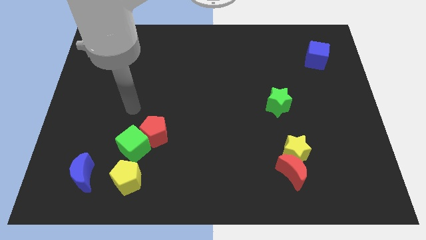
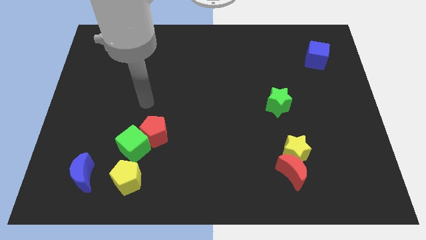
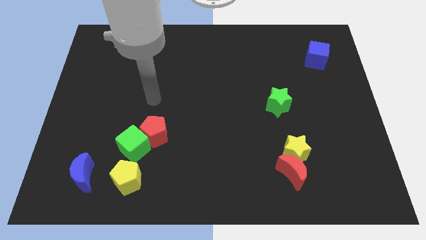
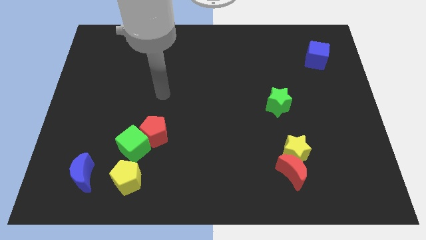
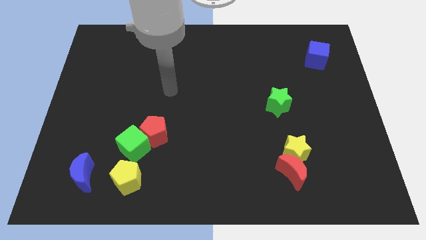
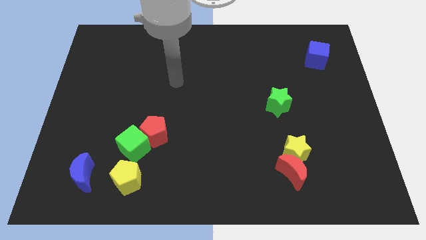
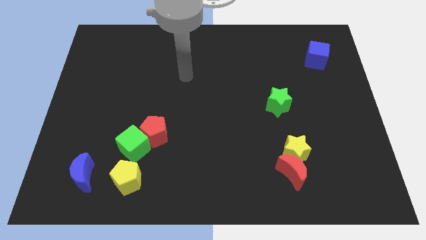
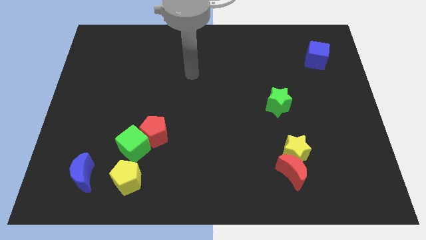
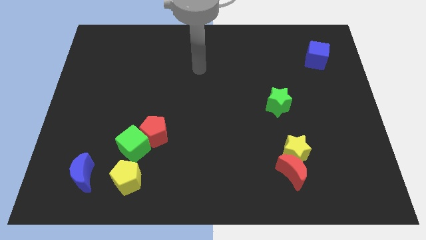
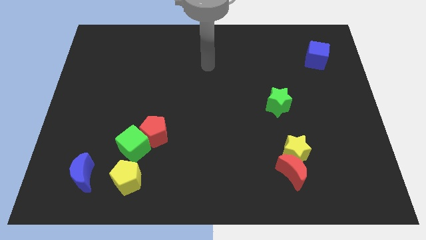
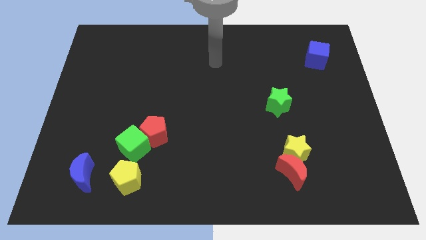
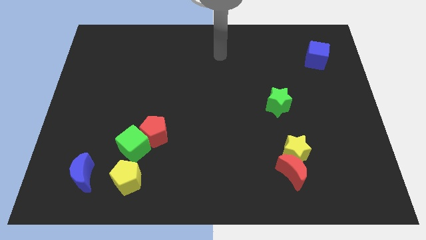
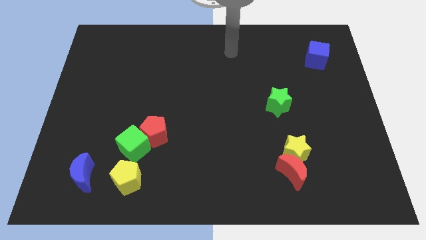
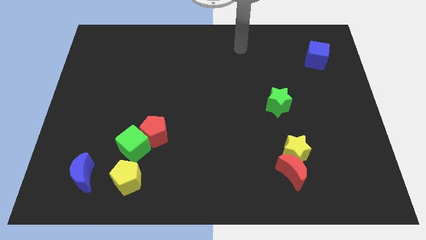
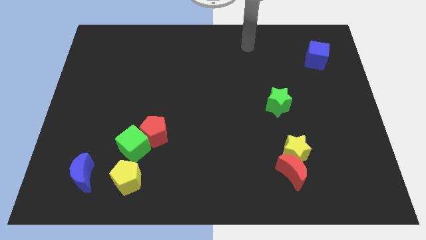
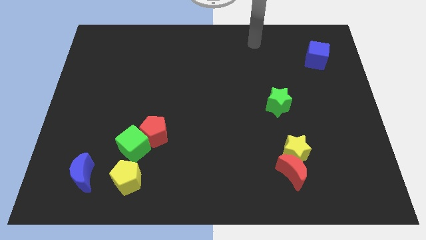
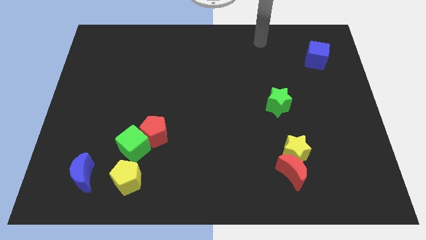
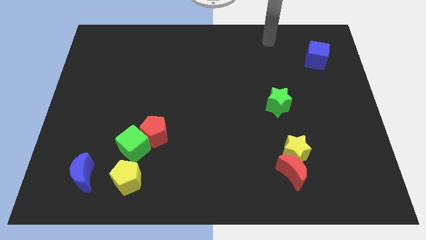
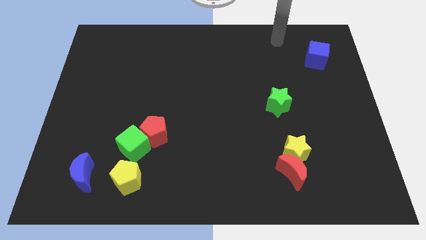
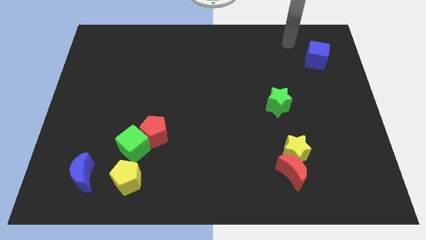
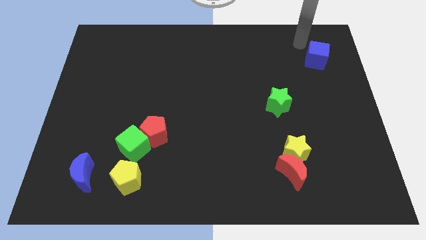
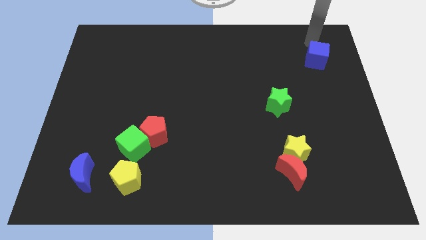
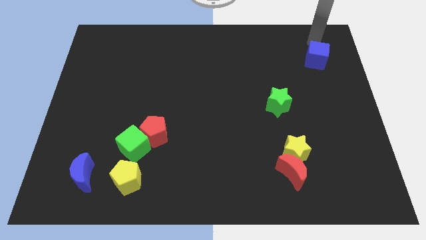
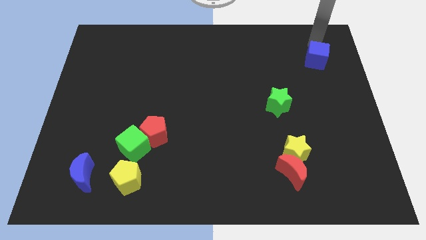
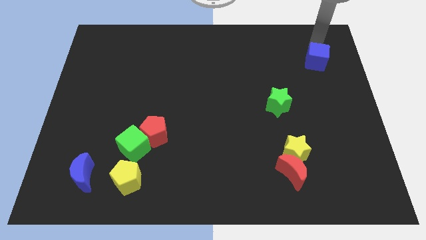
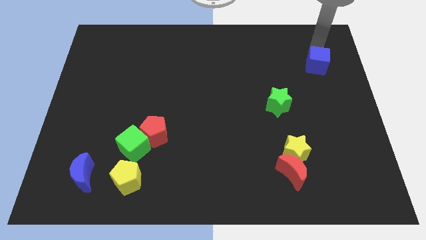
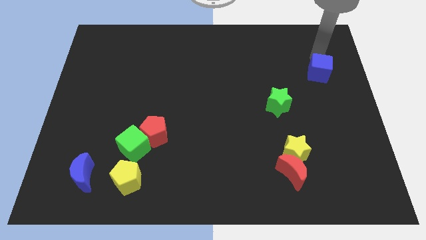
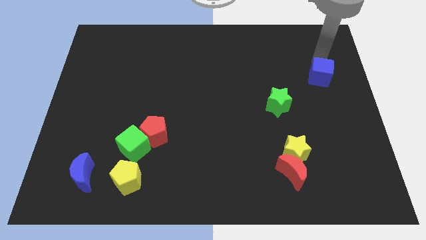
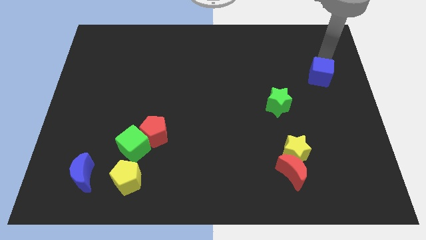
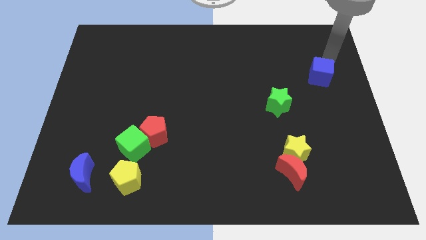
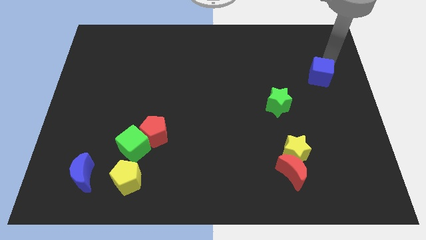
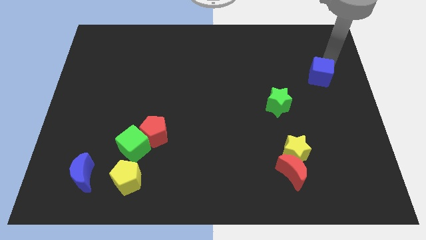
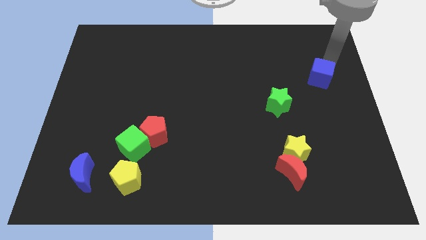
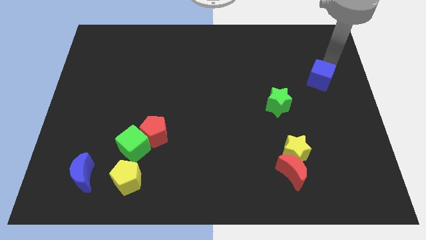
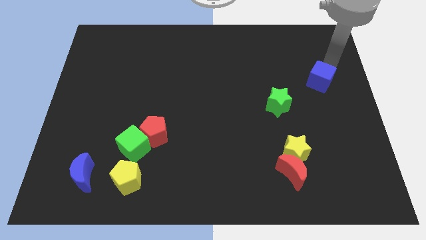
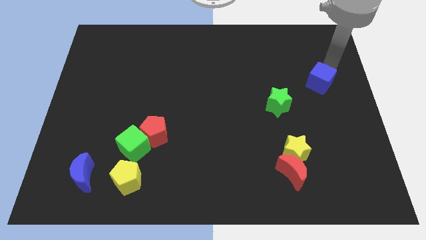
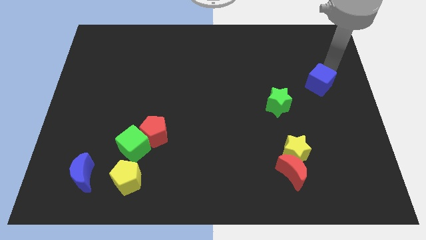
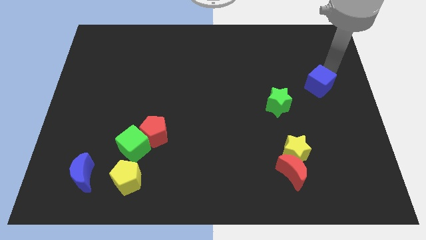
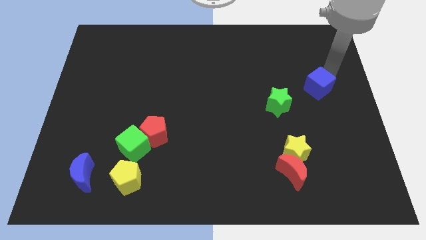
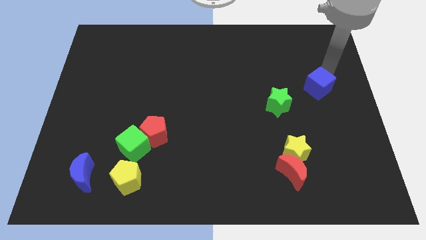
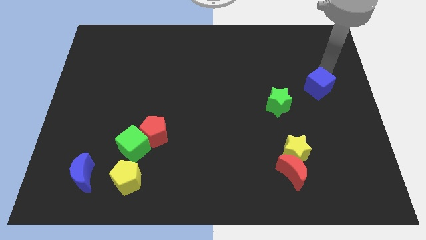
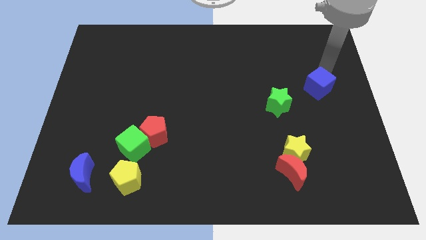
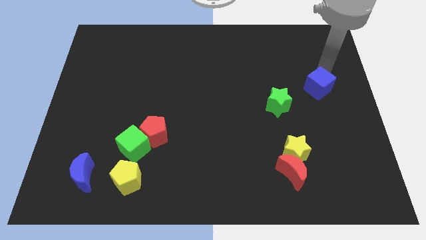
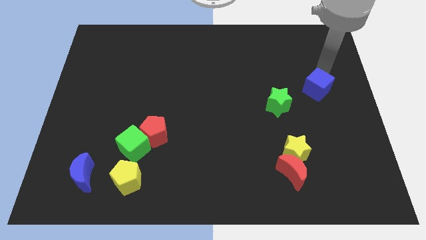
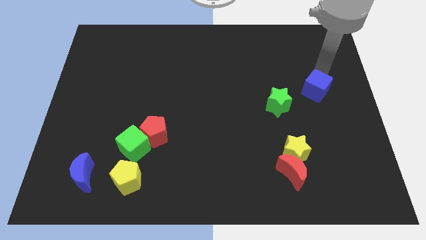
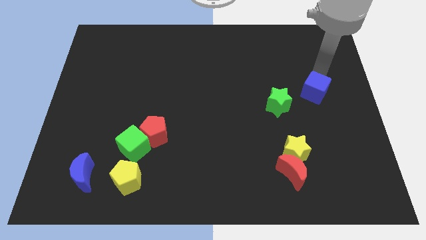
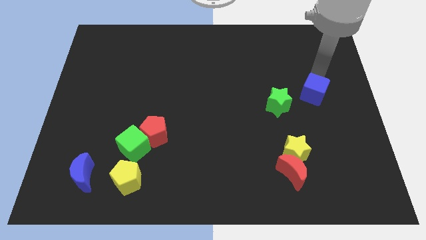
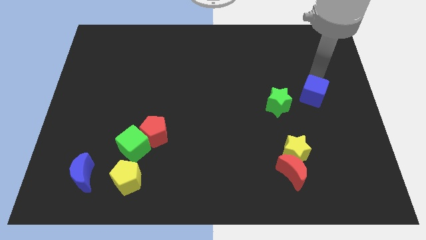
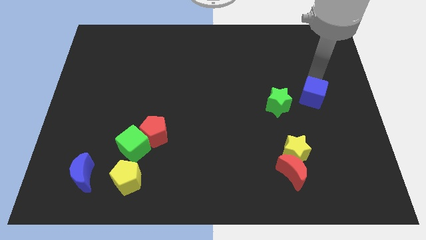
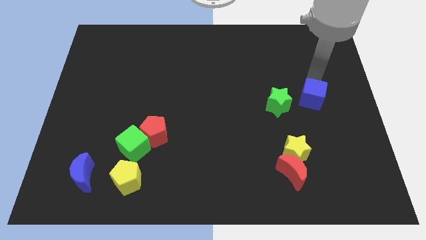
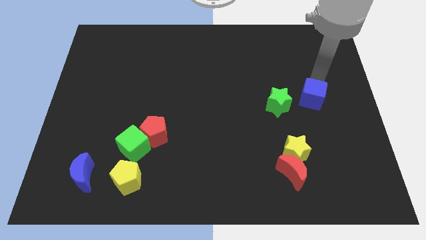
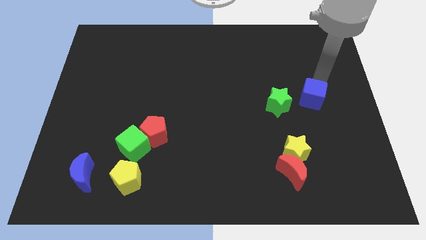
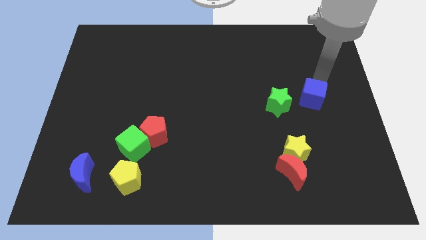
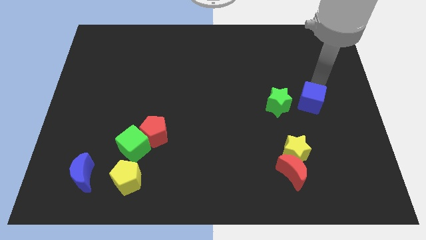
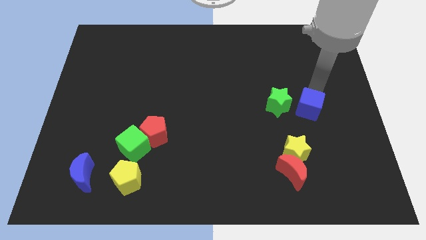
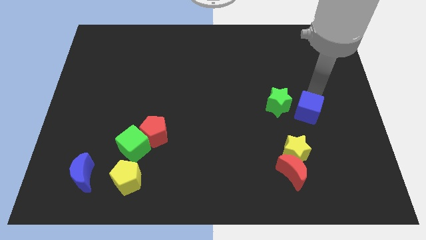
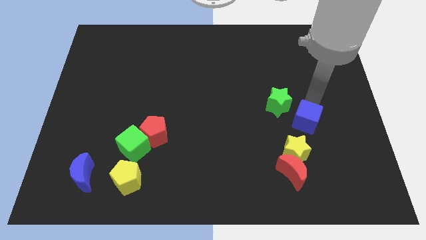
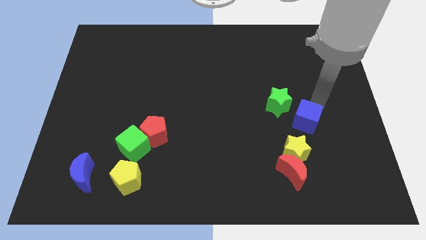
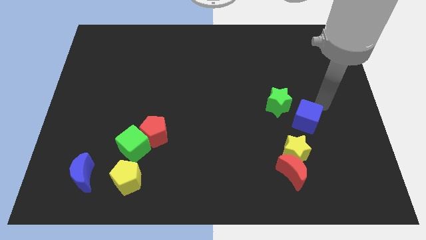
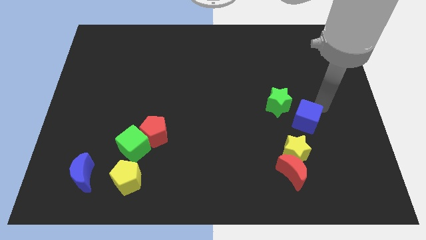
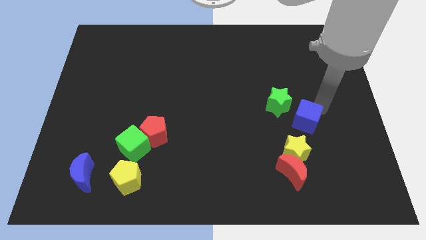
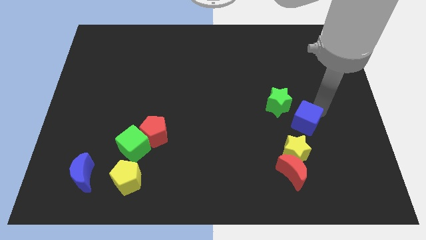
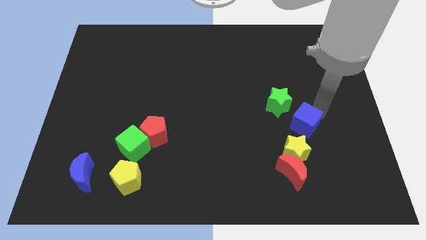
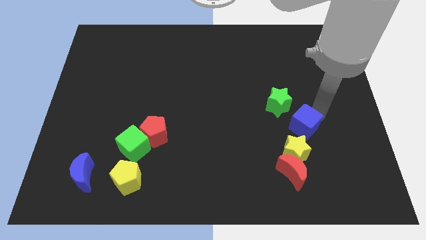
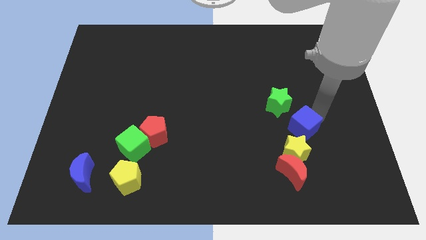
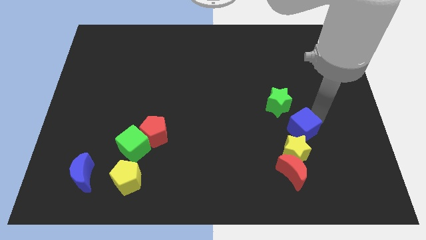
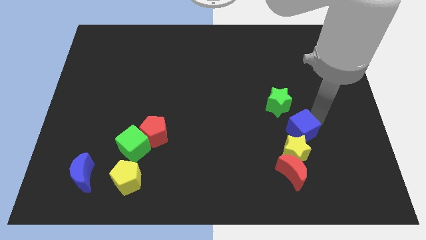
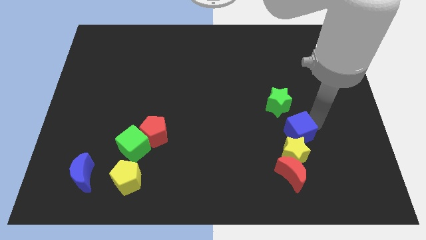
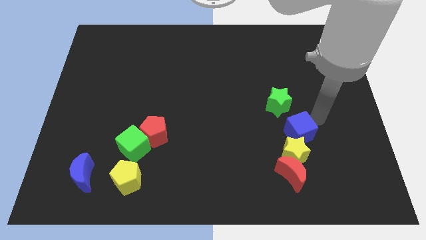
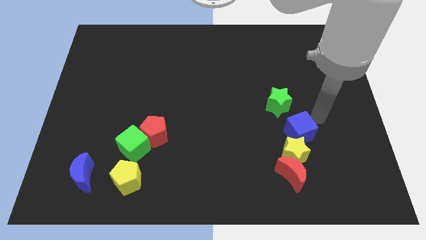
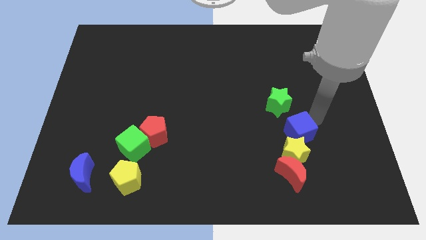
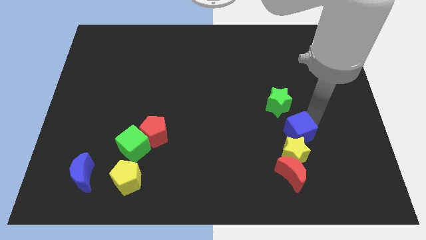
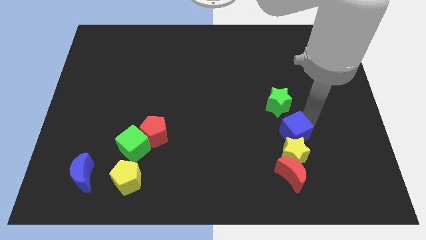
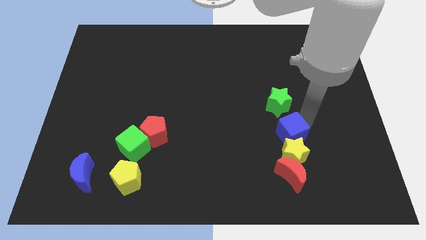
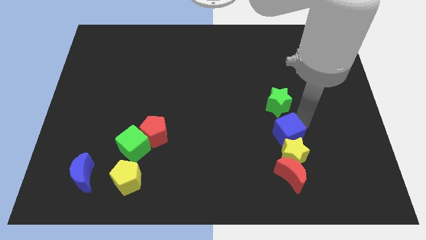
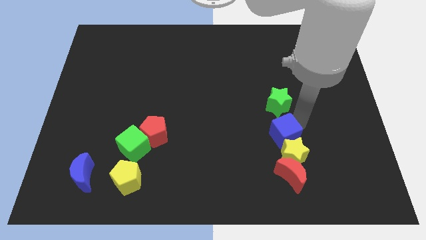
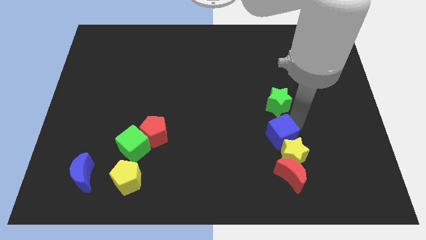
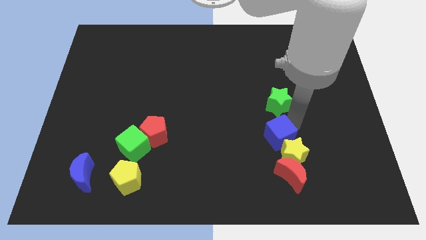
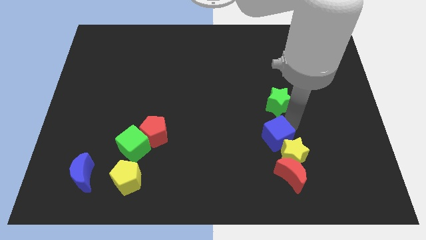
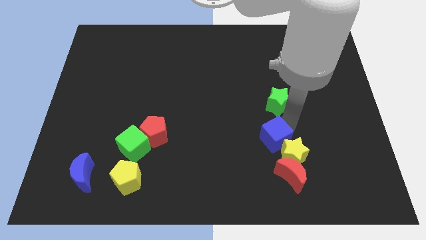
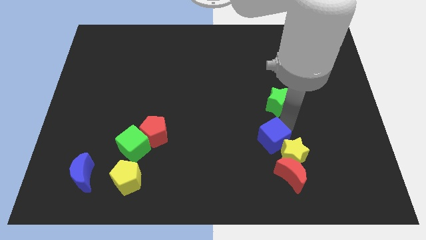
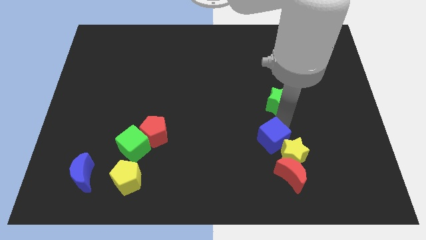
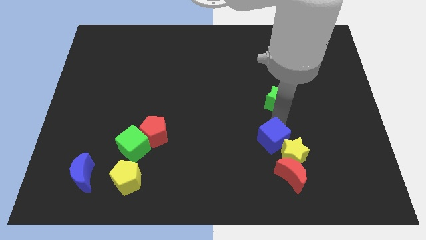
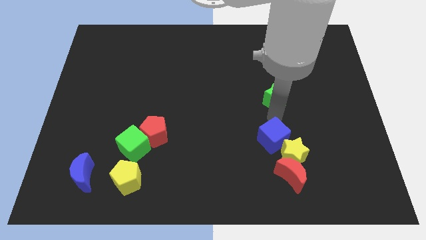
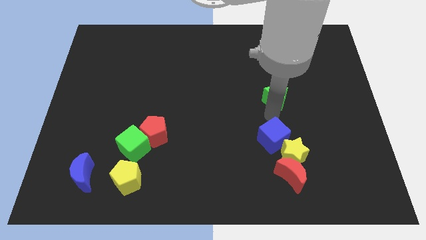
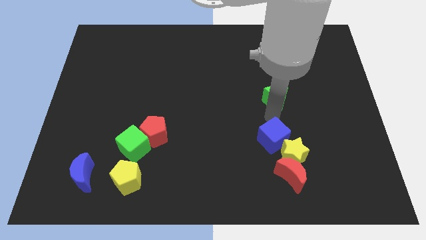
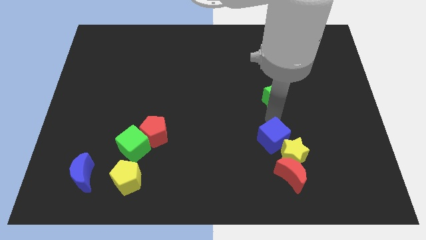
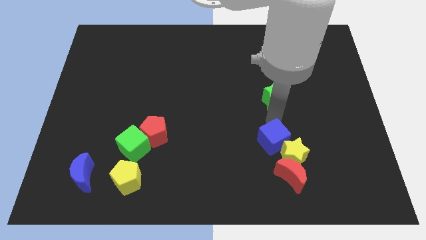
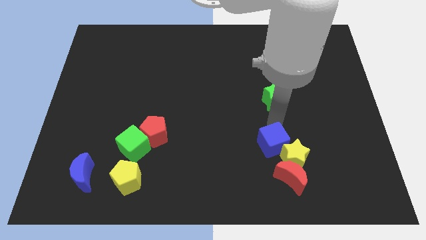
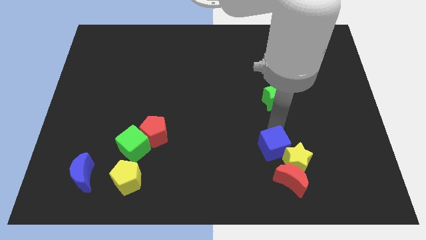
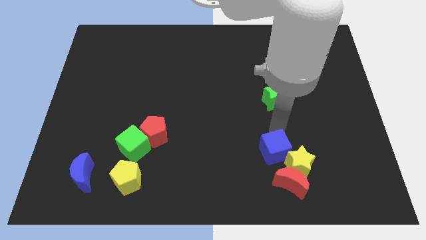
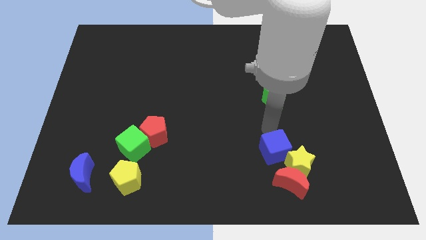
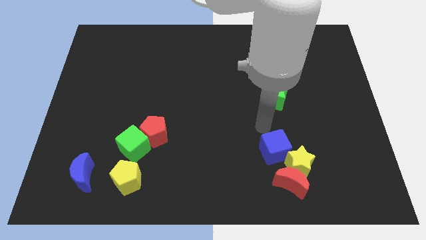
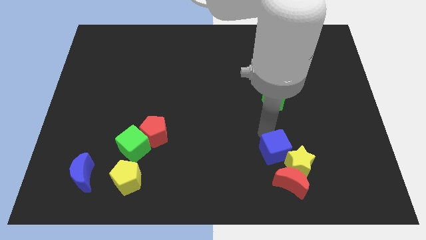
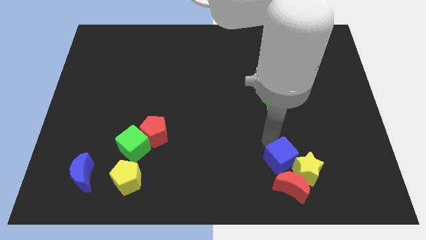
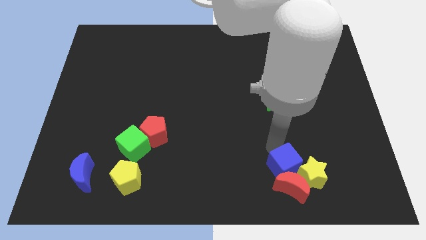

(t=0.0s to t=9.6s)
push the blue cube to the red moon
